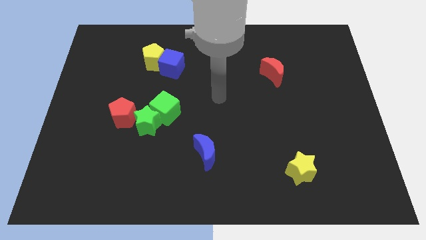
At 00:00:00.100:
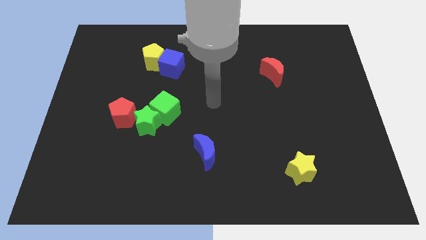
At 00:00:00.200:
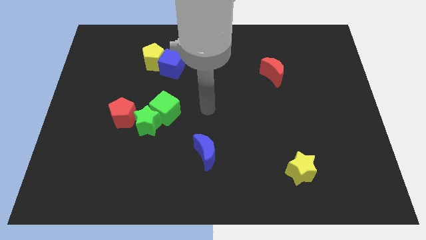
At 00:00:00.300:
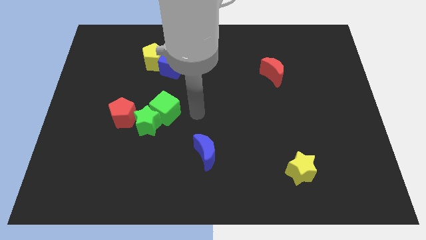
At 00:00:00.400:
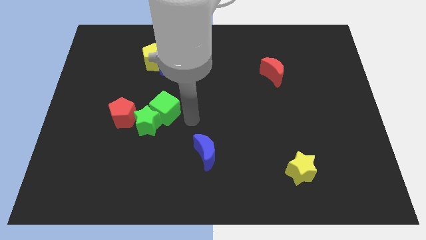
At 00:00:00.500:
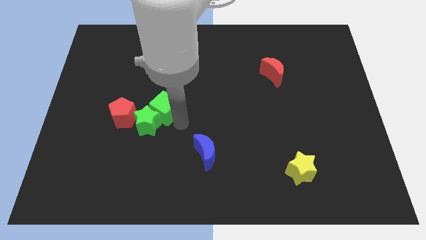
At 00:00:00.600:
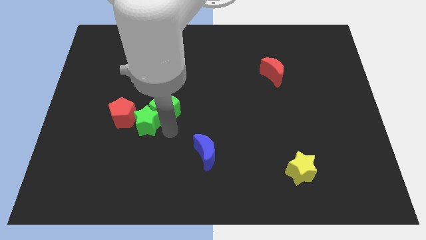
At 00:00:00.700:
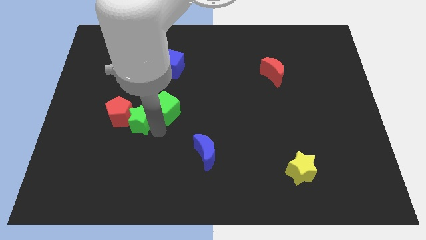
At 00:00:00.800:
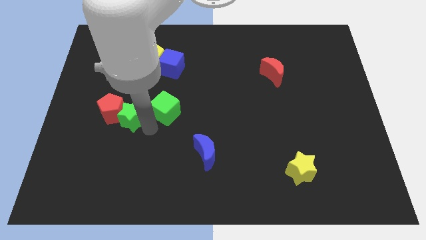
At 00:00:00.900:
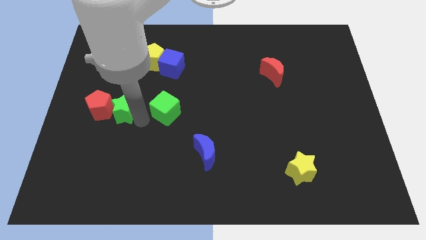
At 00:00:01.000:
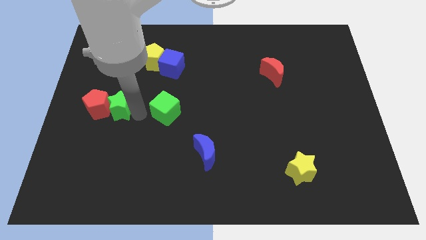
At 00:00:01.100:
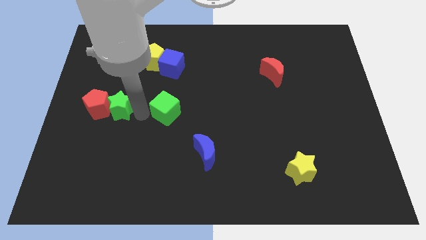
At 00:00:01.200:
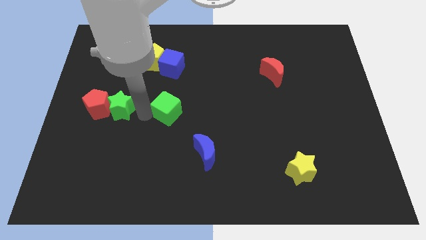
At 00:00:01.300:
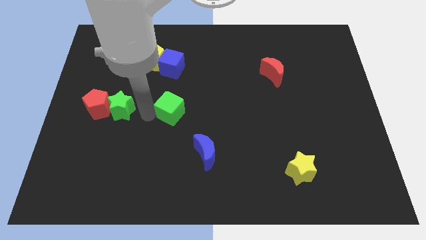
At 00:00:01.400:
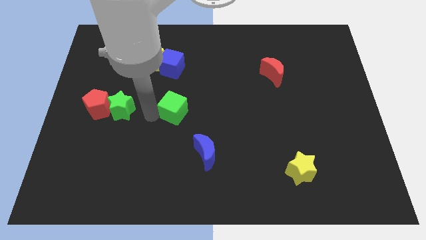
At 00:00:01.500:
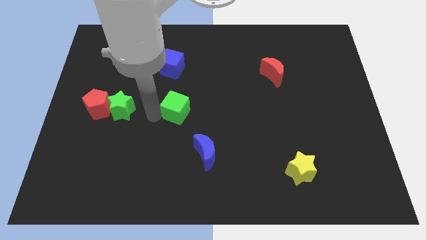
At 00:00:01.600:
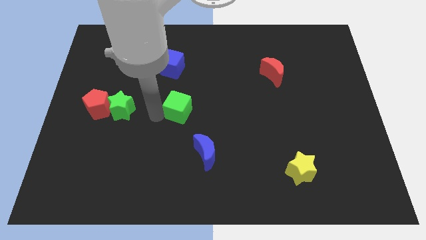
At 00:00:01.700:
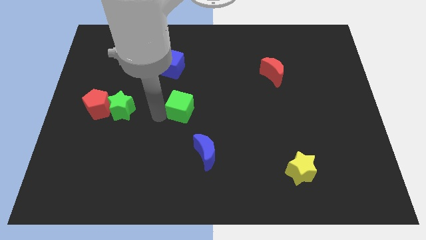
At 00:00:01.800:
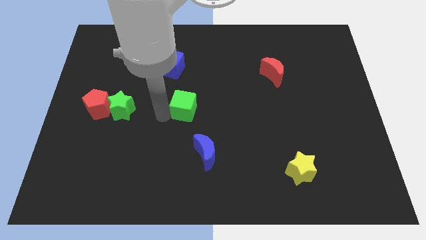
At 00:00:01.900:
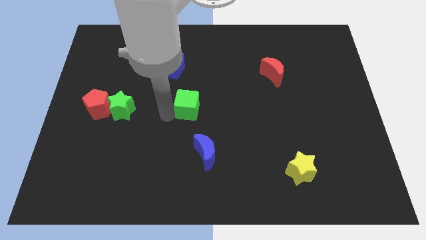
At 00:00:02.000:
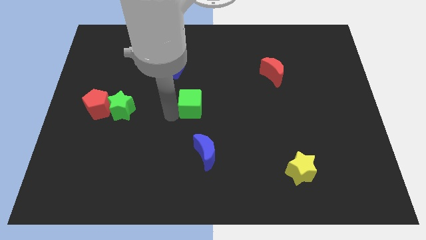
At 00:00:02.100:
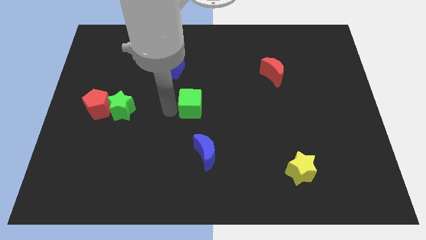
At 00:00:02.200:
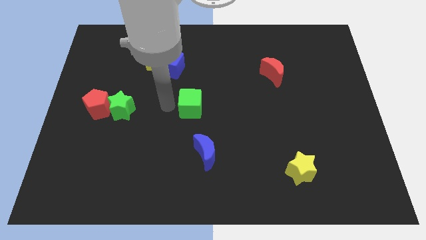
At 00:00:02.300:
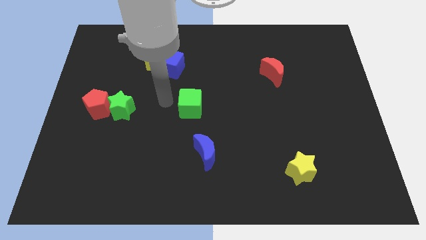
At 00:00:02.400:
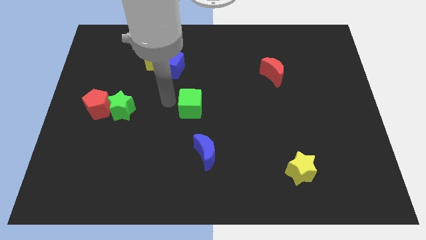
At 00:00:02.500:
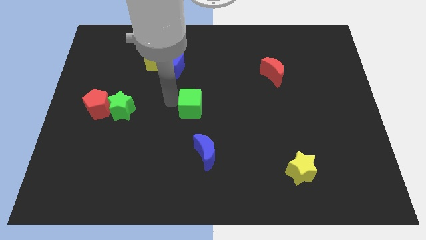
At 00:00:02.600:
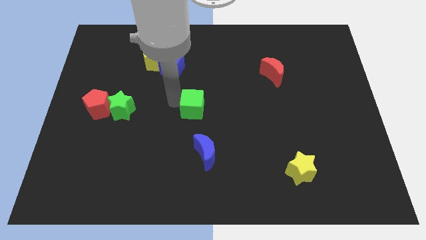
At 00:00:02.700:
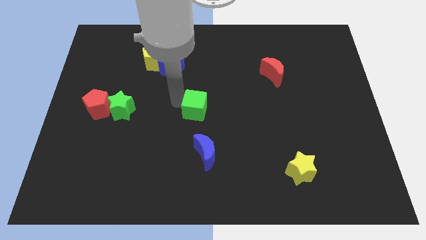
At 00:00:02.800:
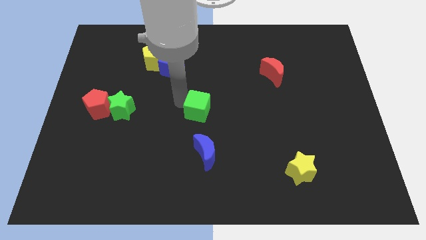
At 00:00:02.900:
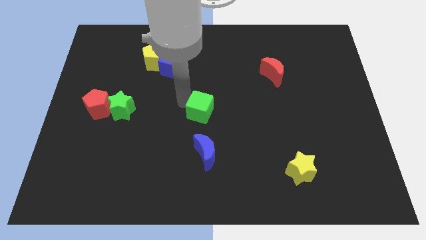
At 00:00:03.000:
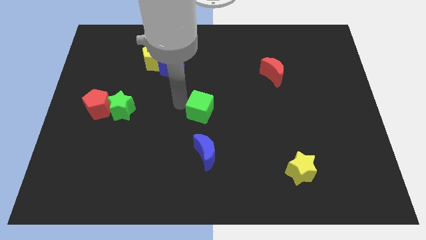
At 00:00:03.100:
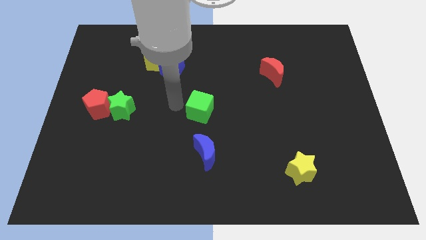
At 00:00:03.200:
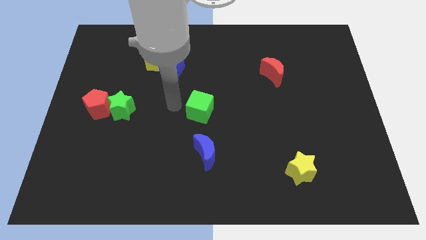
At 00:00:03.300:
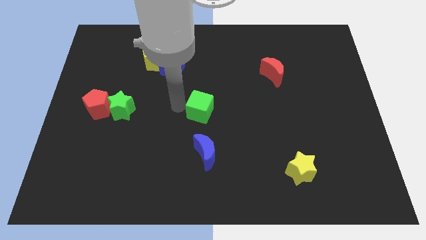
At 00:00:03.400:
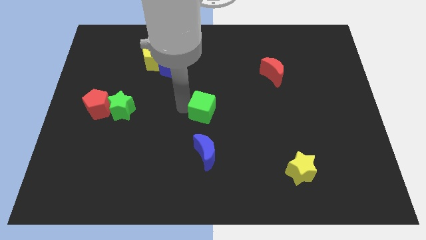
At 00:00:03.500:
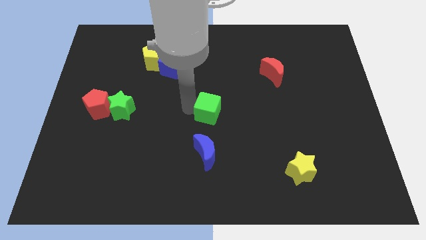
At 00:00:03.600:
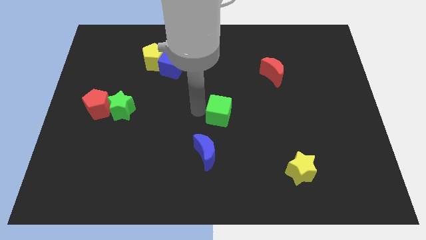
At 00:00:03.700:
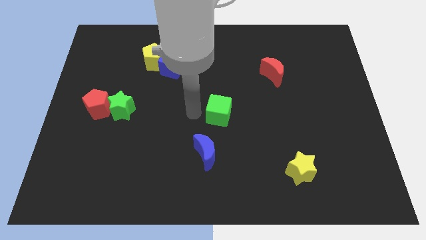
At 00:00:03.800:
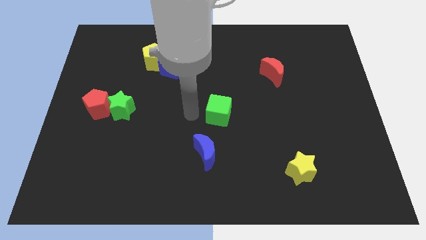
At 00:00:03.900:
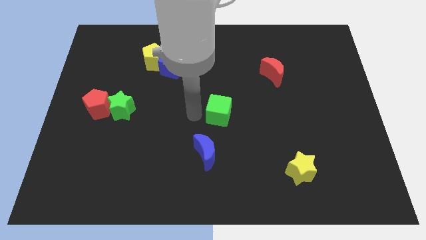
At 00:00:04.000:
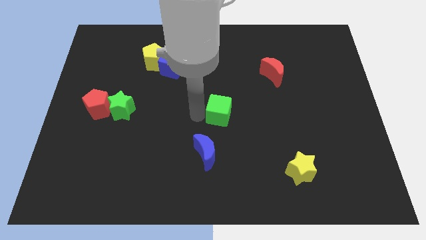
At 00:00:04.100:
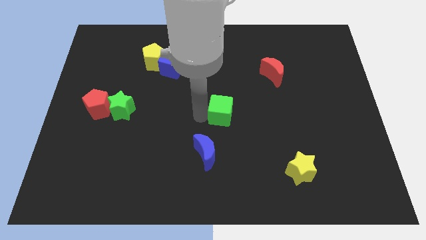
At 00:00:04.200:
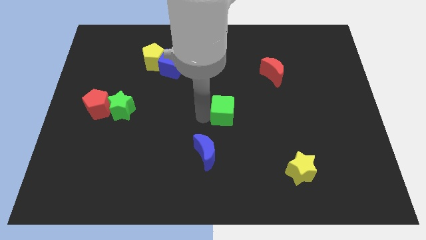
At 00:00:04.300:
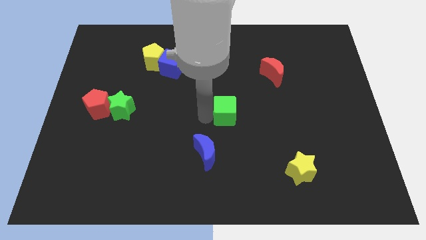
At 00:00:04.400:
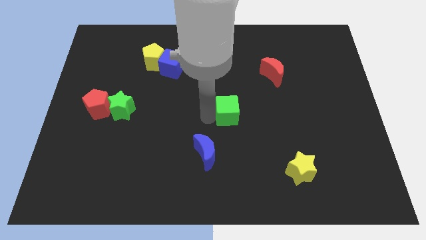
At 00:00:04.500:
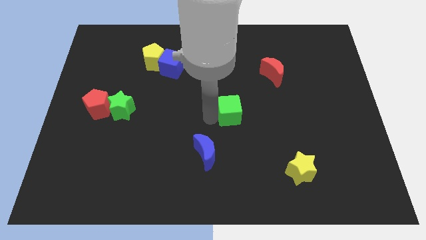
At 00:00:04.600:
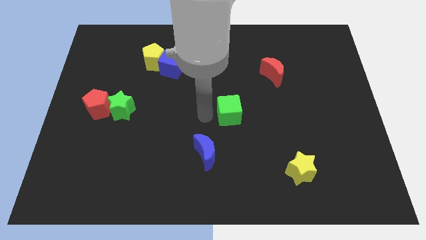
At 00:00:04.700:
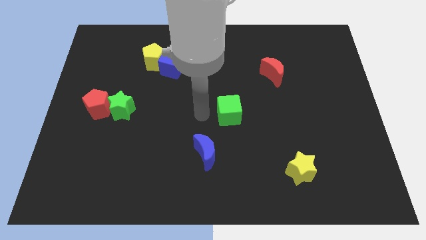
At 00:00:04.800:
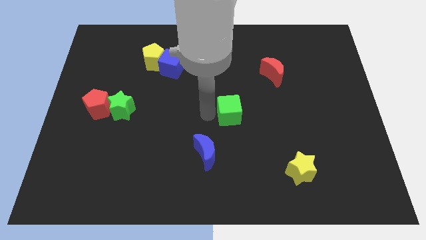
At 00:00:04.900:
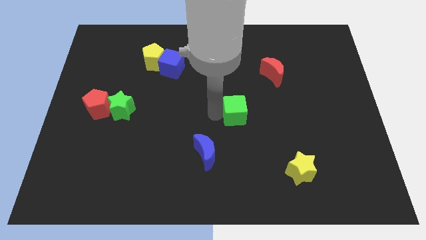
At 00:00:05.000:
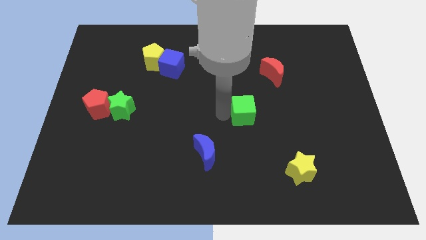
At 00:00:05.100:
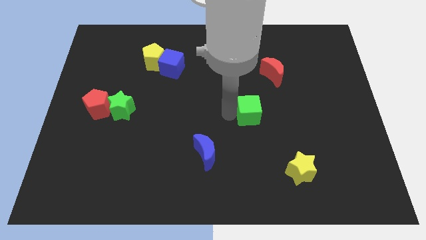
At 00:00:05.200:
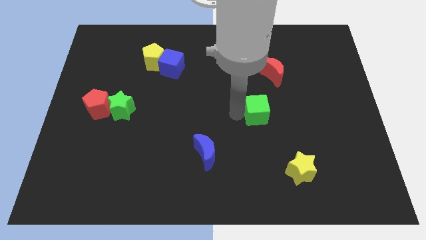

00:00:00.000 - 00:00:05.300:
push the green cube right

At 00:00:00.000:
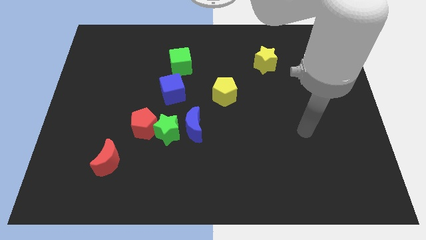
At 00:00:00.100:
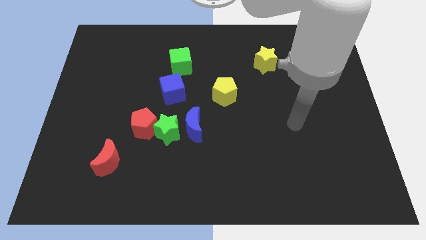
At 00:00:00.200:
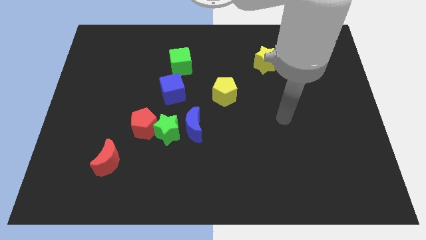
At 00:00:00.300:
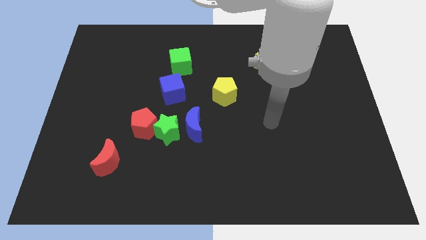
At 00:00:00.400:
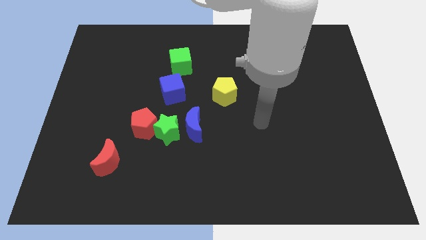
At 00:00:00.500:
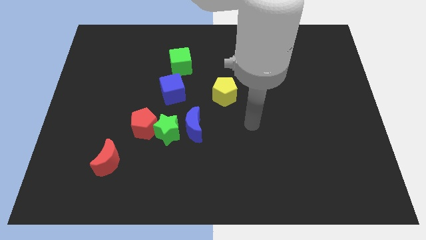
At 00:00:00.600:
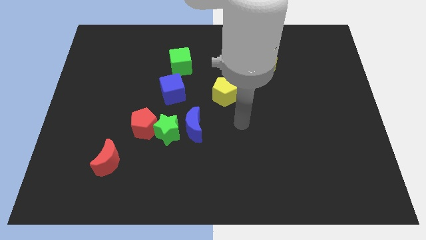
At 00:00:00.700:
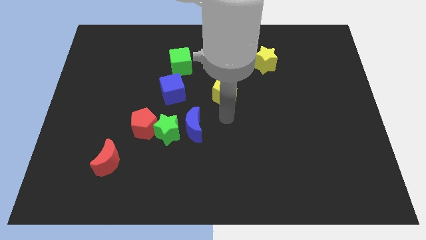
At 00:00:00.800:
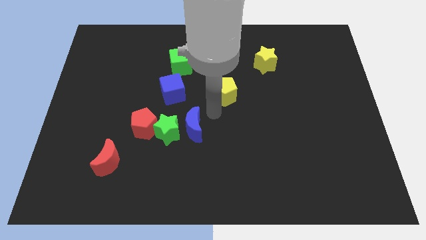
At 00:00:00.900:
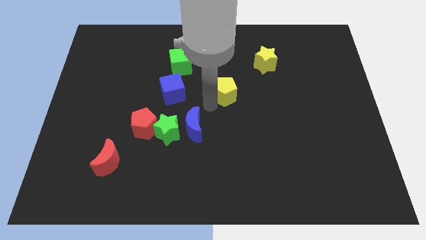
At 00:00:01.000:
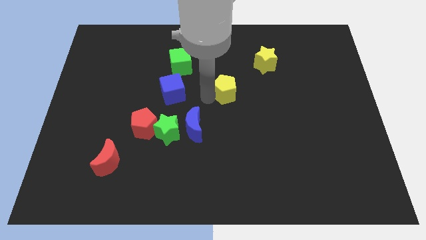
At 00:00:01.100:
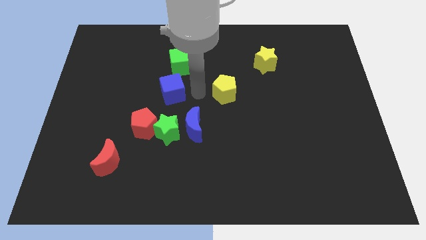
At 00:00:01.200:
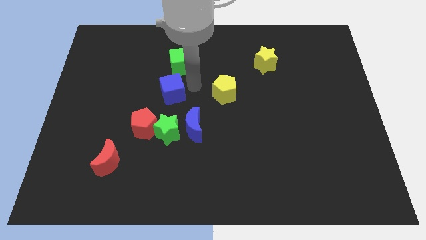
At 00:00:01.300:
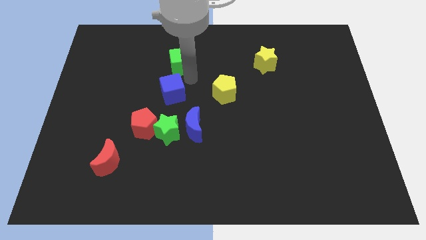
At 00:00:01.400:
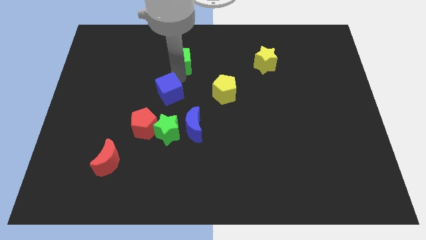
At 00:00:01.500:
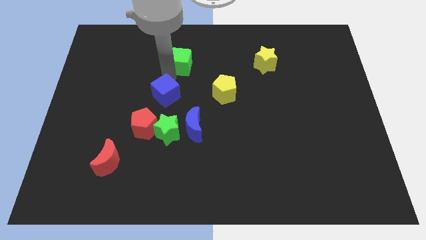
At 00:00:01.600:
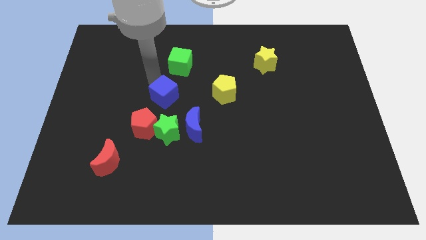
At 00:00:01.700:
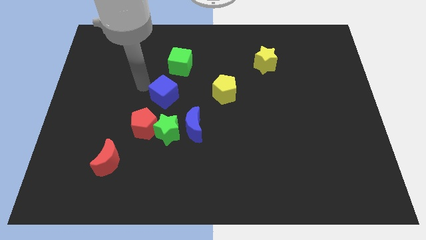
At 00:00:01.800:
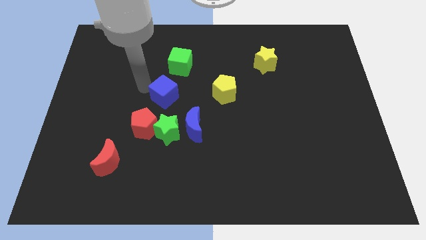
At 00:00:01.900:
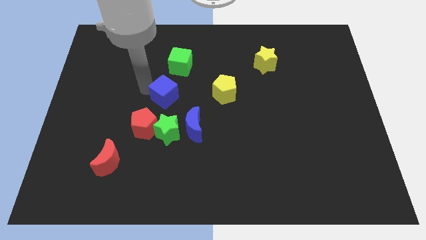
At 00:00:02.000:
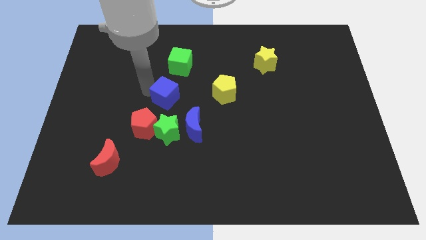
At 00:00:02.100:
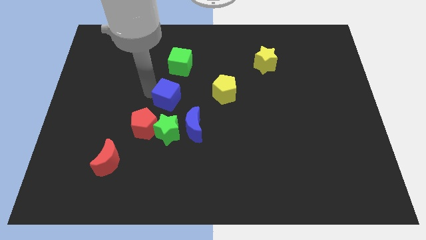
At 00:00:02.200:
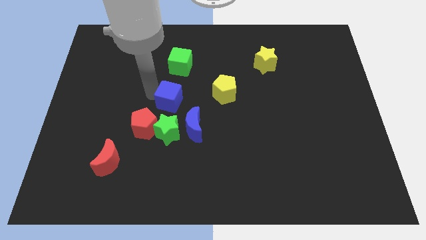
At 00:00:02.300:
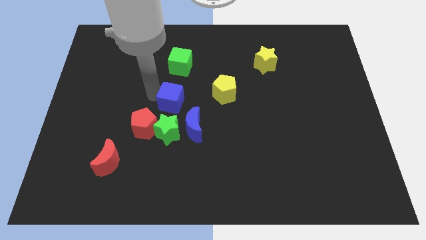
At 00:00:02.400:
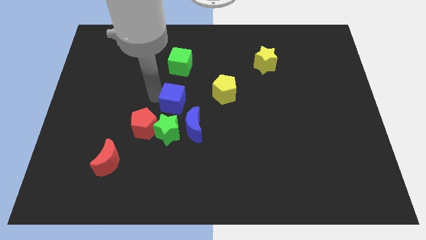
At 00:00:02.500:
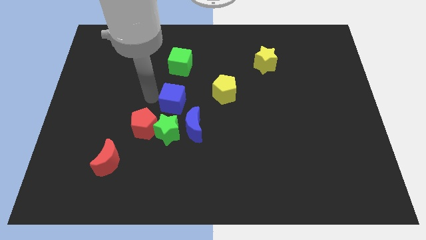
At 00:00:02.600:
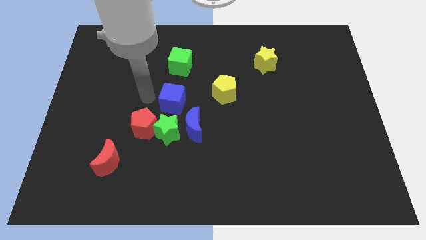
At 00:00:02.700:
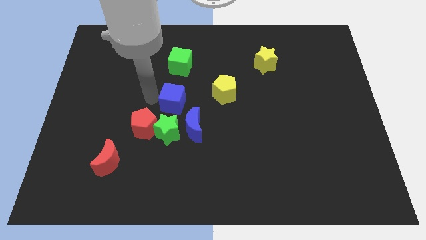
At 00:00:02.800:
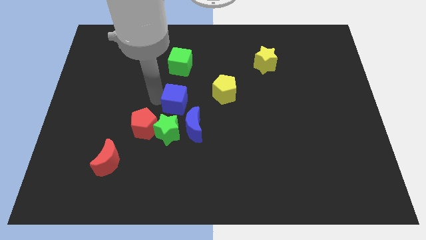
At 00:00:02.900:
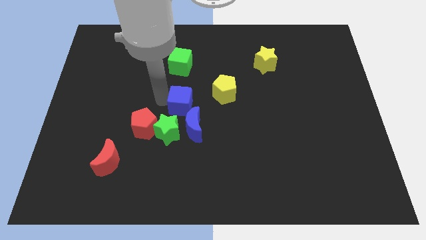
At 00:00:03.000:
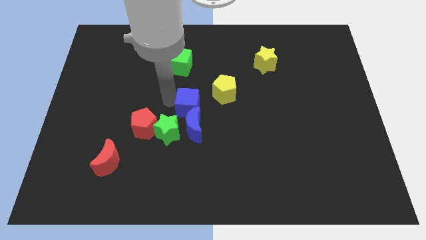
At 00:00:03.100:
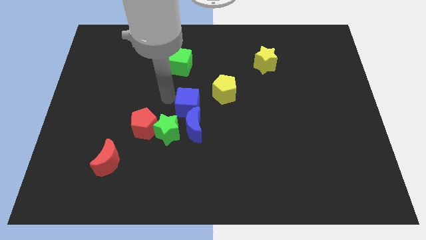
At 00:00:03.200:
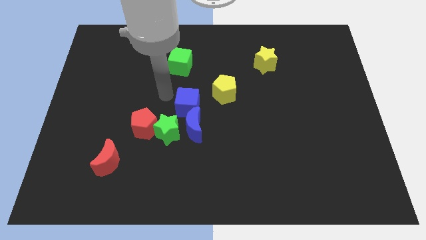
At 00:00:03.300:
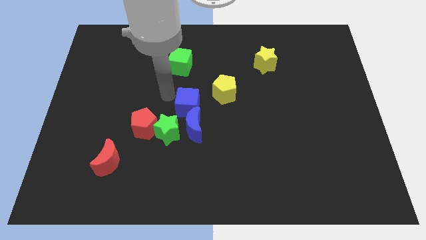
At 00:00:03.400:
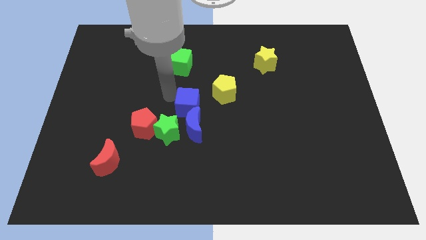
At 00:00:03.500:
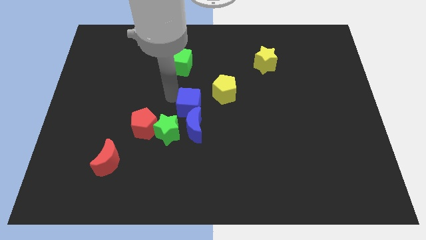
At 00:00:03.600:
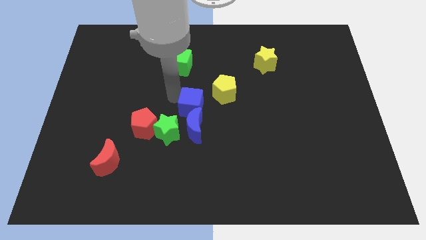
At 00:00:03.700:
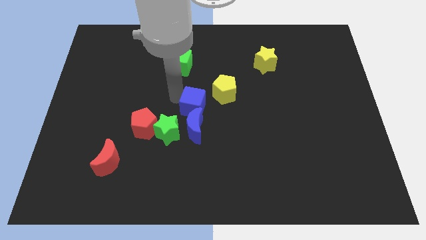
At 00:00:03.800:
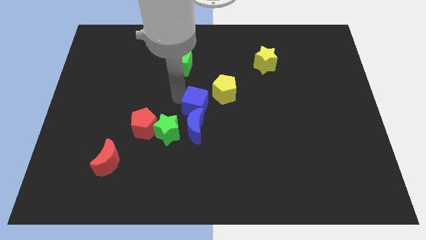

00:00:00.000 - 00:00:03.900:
slightly push the blue cube downwards and then right
